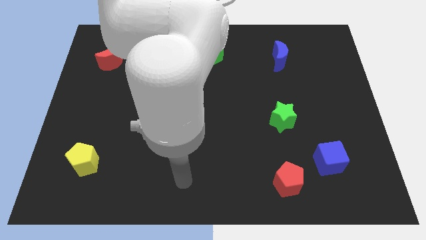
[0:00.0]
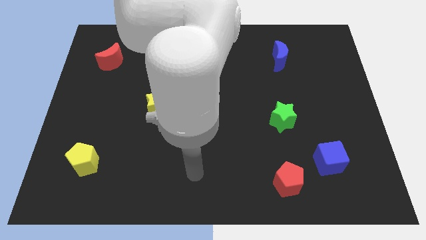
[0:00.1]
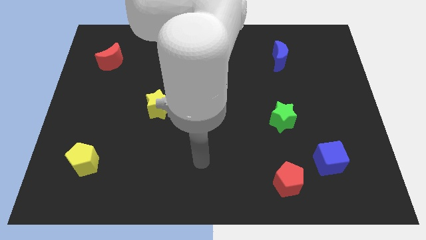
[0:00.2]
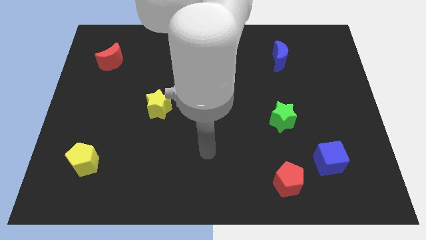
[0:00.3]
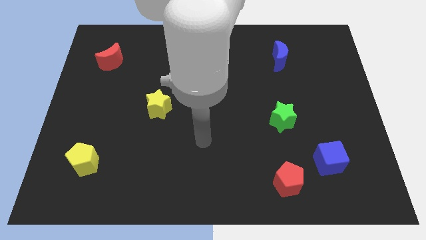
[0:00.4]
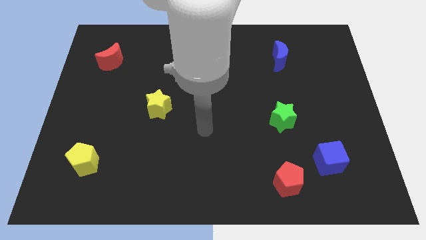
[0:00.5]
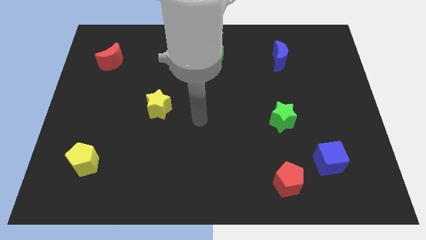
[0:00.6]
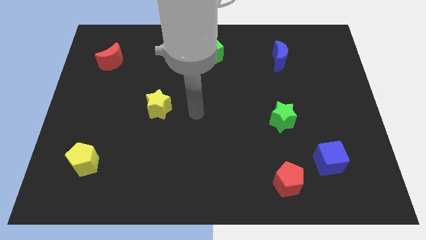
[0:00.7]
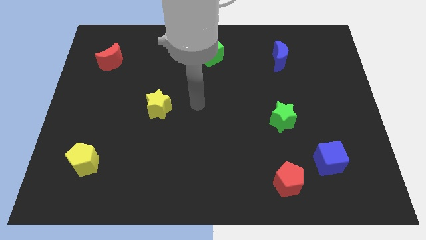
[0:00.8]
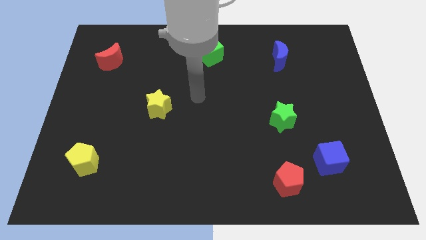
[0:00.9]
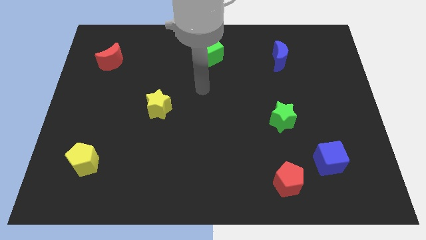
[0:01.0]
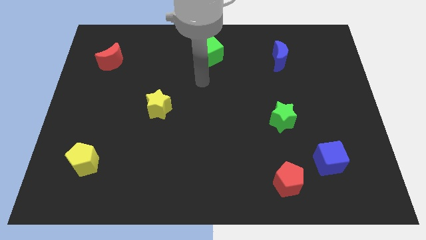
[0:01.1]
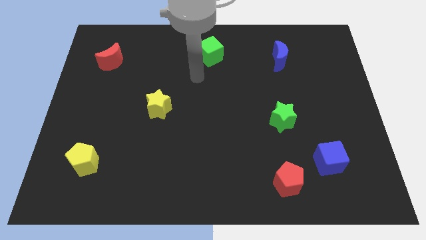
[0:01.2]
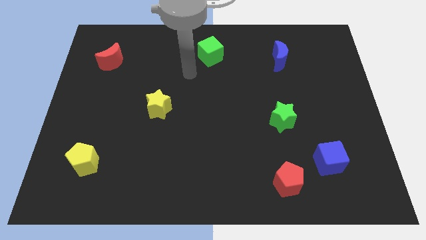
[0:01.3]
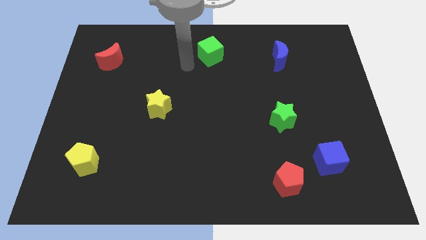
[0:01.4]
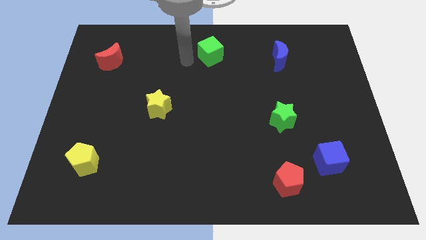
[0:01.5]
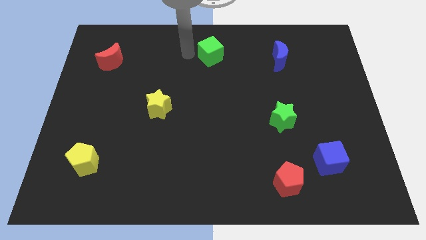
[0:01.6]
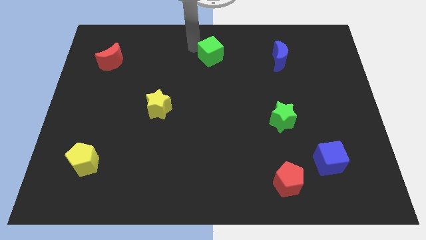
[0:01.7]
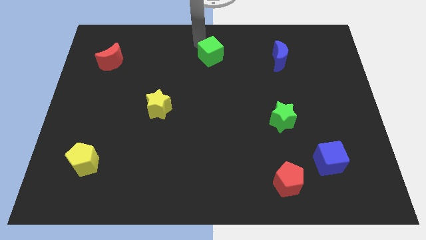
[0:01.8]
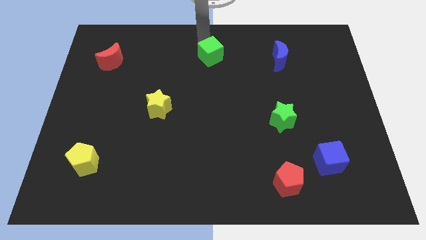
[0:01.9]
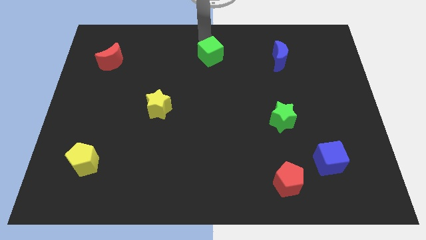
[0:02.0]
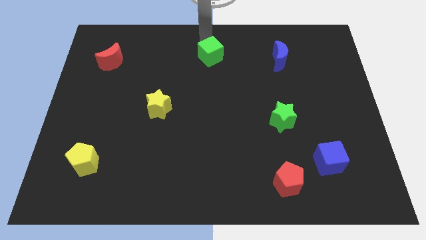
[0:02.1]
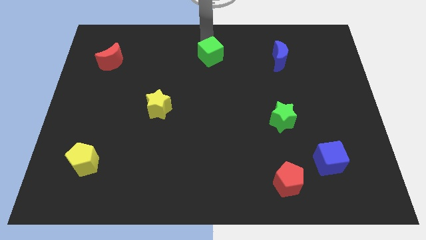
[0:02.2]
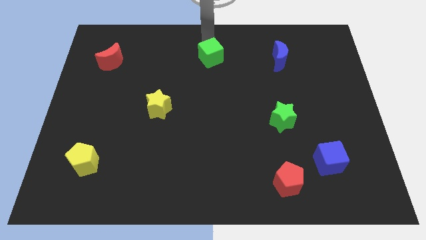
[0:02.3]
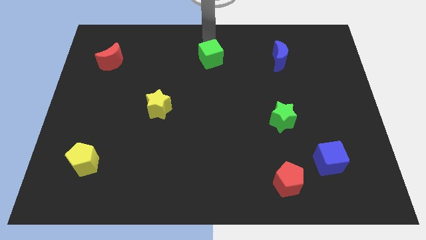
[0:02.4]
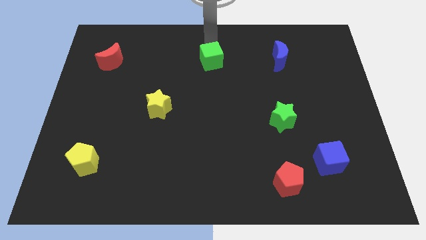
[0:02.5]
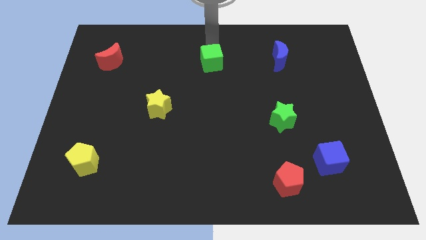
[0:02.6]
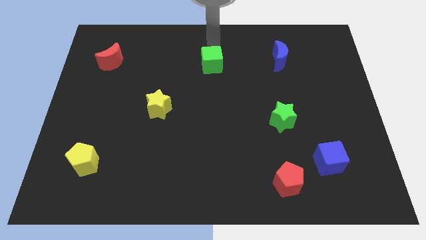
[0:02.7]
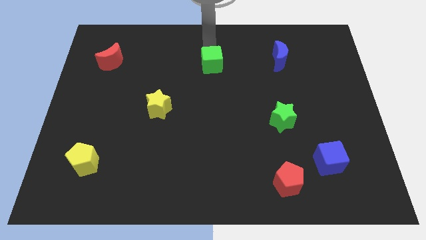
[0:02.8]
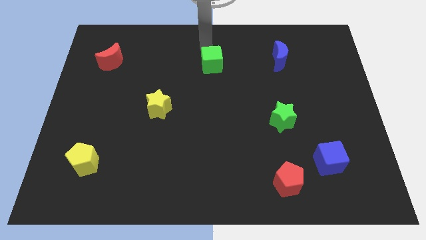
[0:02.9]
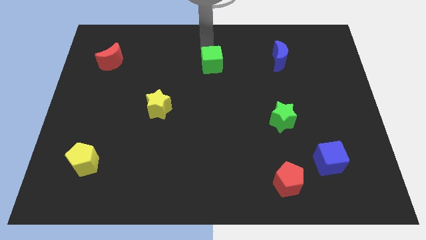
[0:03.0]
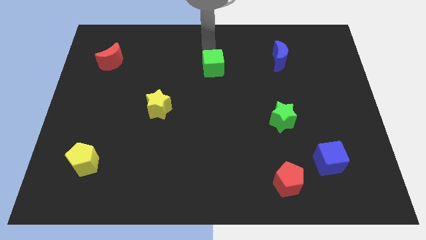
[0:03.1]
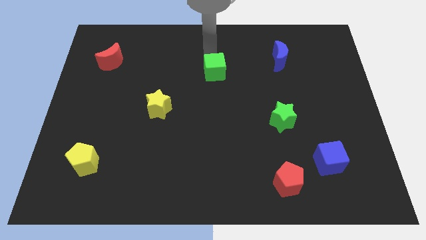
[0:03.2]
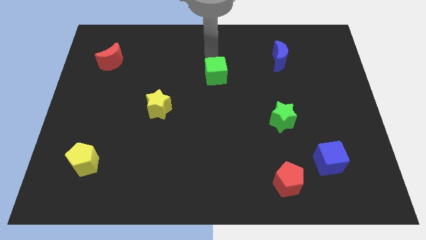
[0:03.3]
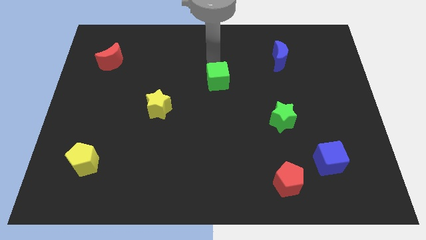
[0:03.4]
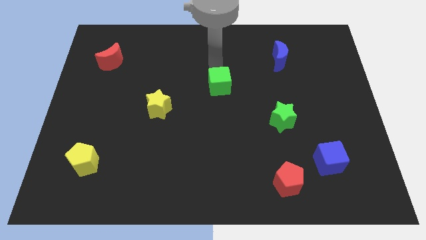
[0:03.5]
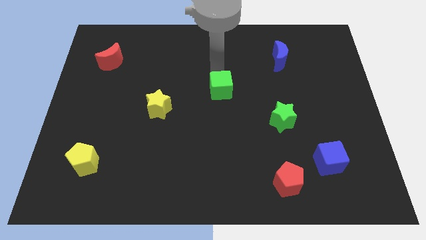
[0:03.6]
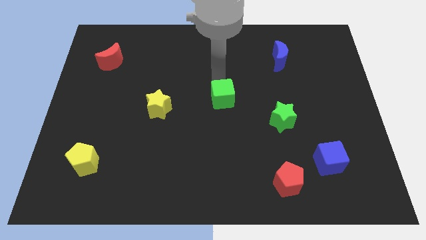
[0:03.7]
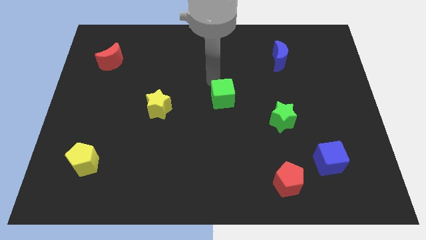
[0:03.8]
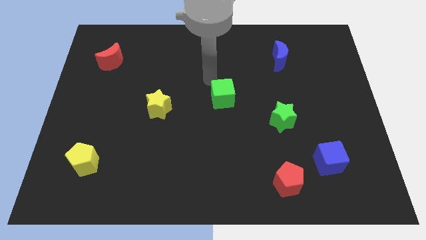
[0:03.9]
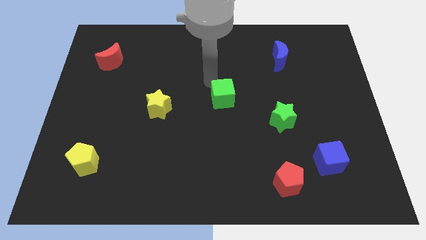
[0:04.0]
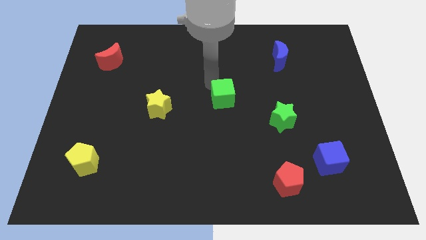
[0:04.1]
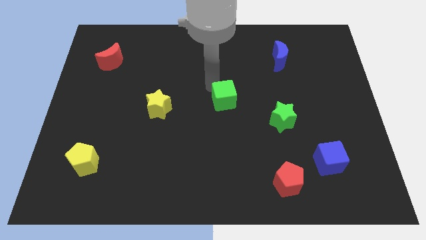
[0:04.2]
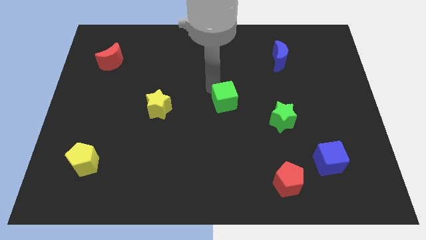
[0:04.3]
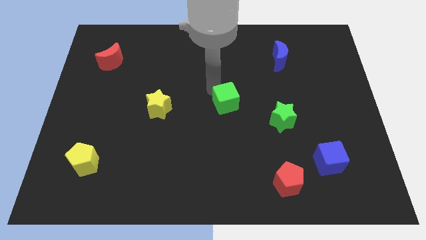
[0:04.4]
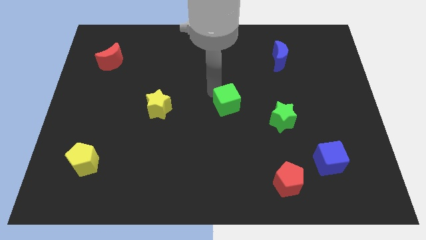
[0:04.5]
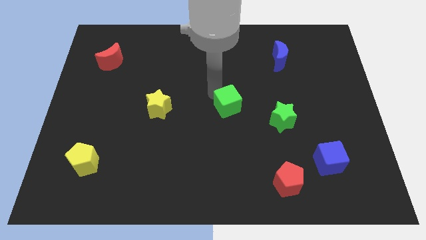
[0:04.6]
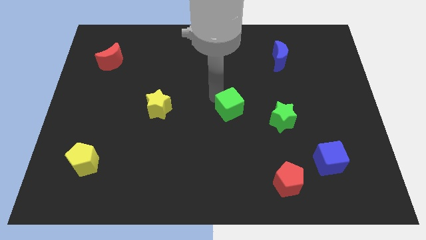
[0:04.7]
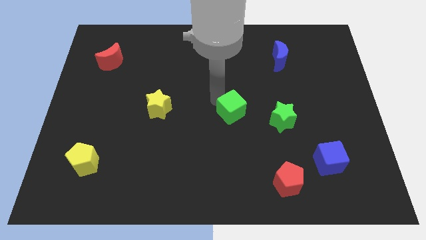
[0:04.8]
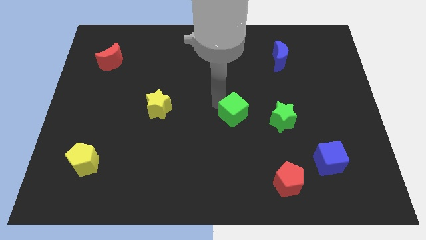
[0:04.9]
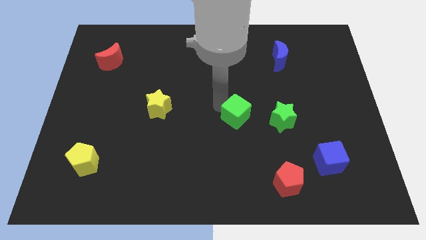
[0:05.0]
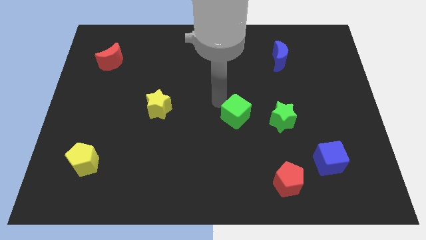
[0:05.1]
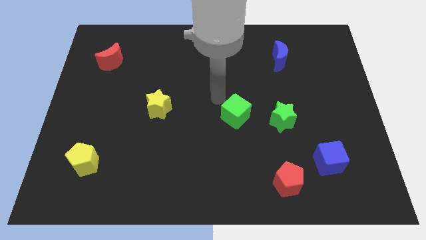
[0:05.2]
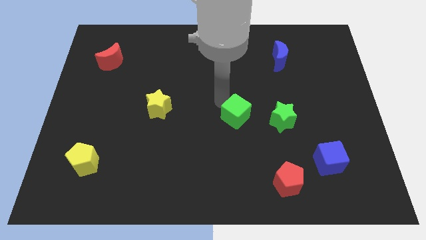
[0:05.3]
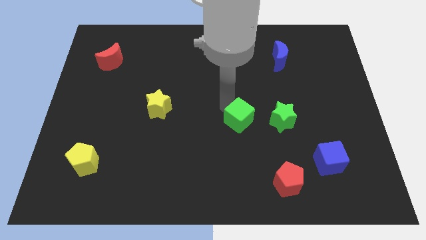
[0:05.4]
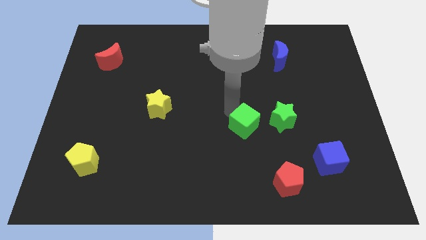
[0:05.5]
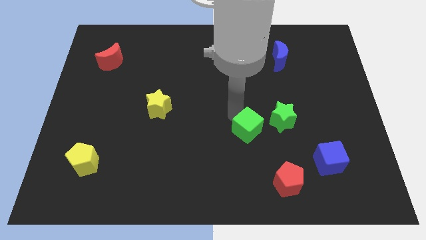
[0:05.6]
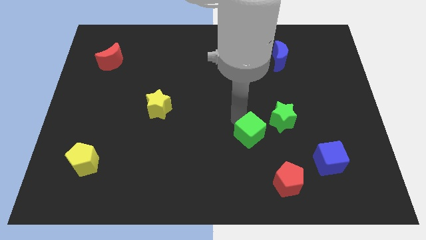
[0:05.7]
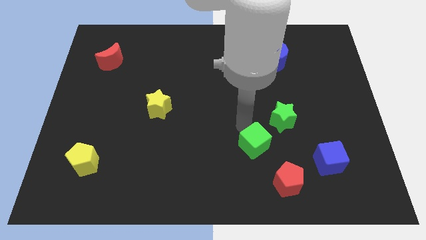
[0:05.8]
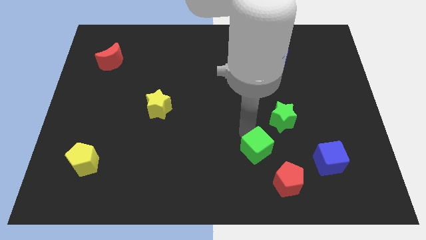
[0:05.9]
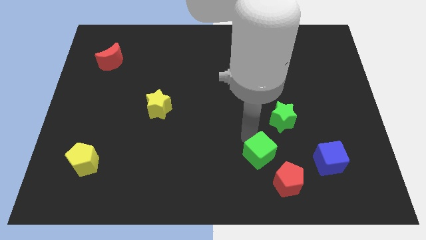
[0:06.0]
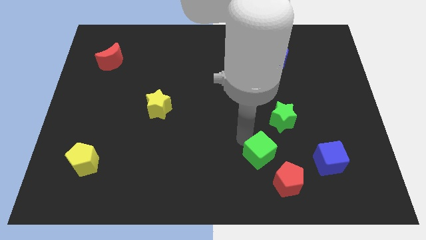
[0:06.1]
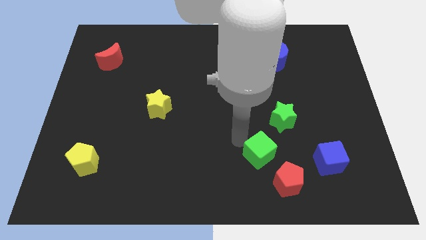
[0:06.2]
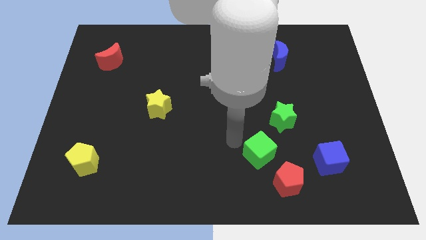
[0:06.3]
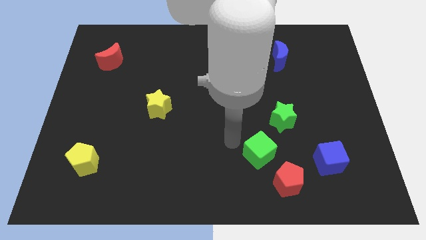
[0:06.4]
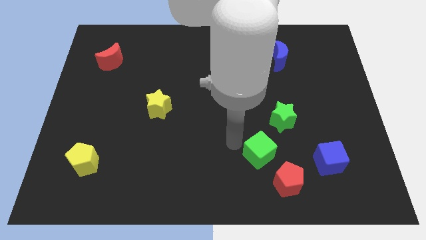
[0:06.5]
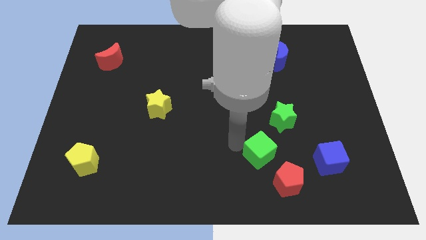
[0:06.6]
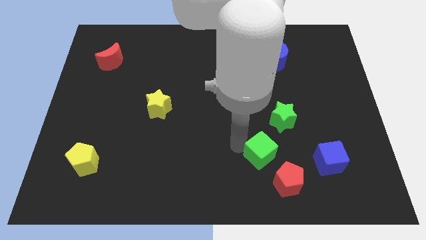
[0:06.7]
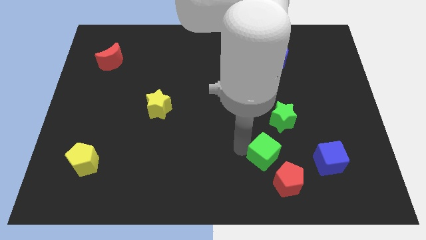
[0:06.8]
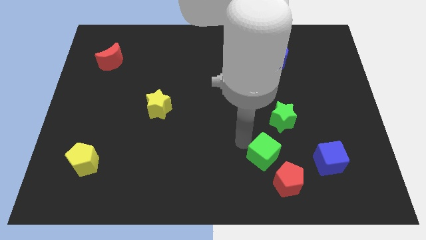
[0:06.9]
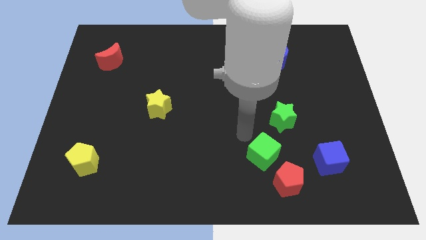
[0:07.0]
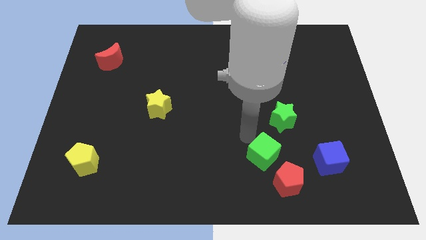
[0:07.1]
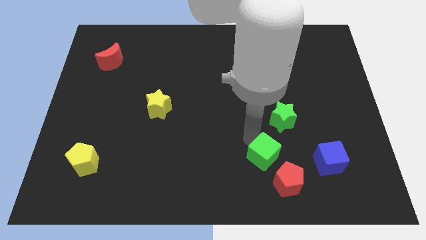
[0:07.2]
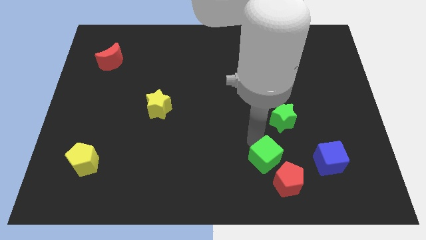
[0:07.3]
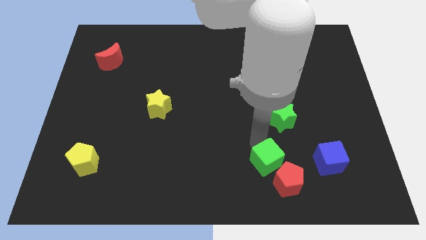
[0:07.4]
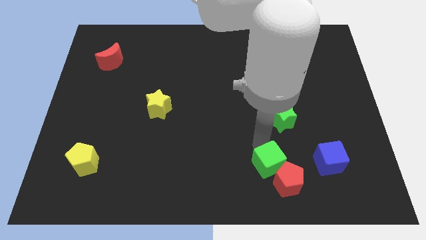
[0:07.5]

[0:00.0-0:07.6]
push the green cube close to the red pentagon
